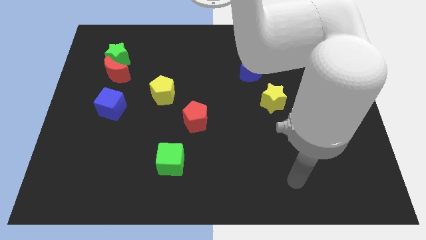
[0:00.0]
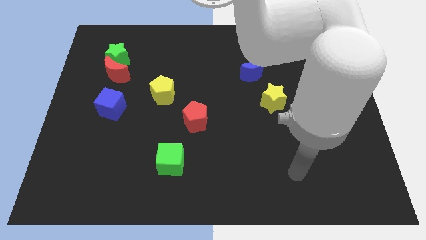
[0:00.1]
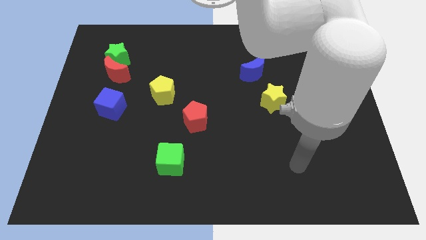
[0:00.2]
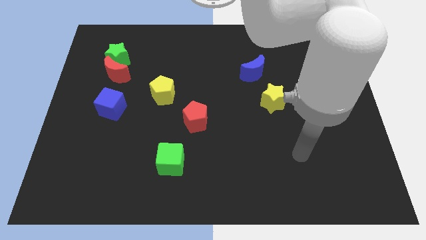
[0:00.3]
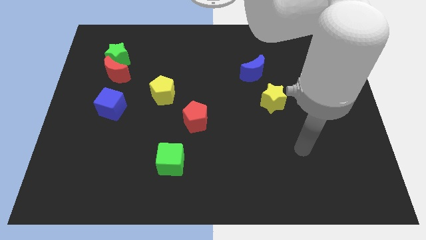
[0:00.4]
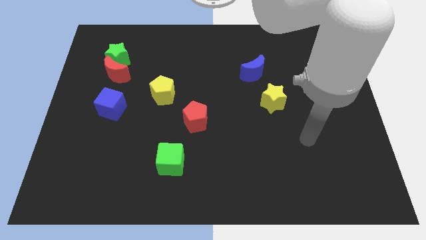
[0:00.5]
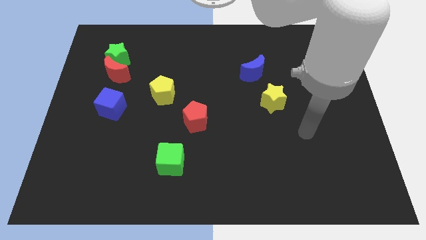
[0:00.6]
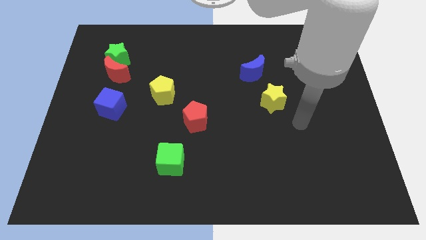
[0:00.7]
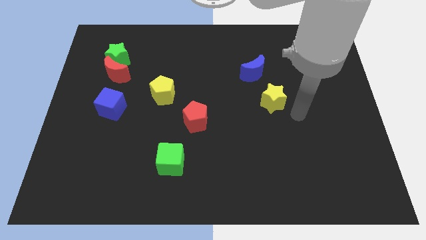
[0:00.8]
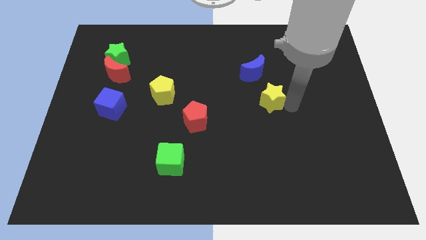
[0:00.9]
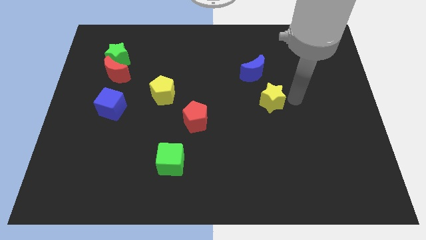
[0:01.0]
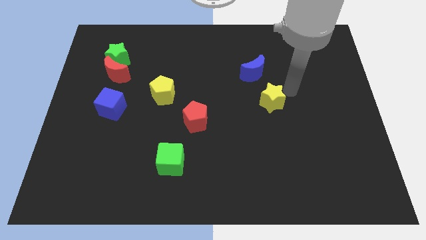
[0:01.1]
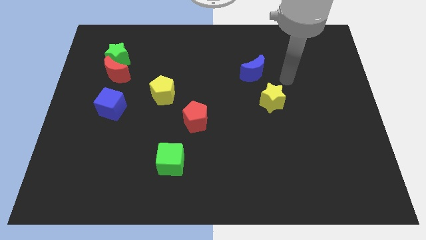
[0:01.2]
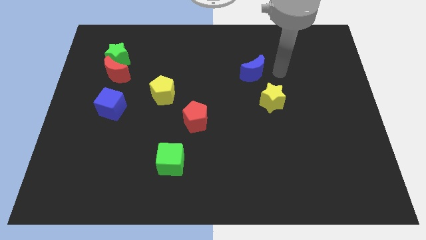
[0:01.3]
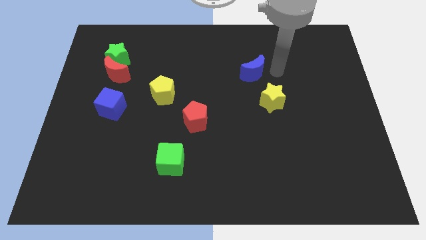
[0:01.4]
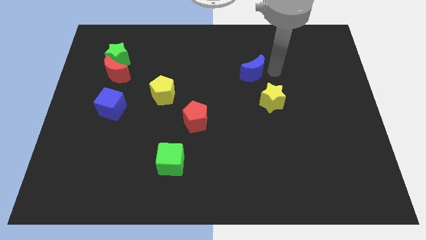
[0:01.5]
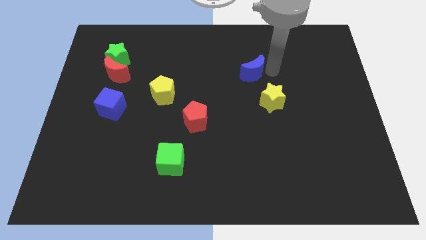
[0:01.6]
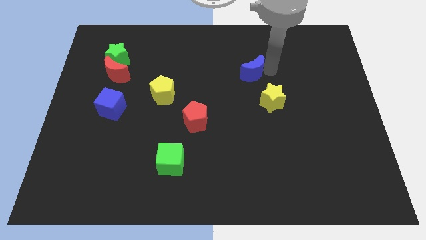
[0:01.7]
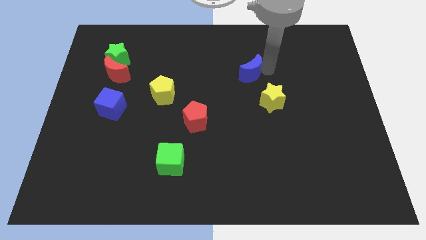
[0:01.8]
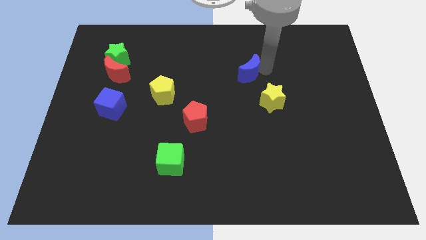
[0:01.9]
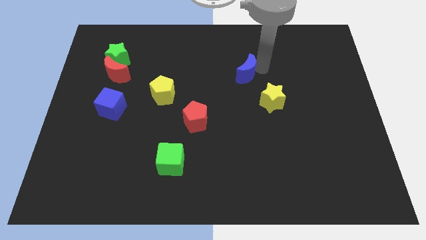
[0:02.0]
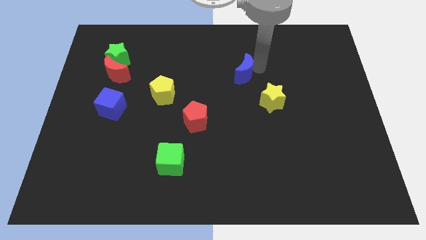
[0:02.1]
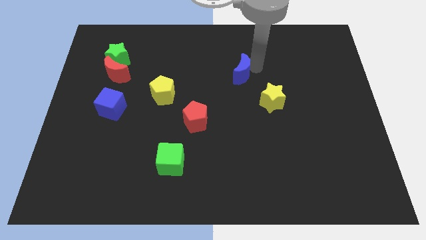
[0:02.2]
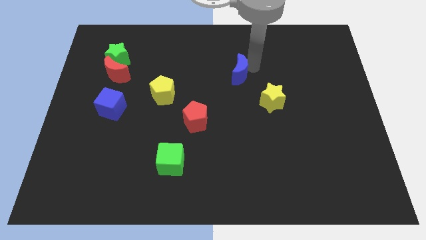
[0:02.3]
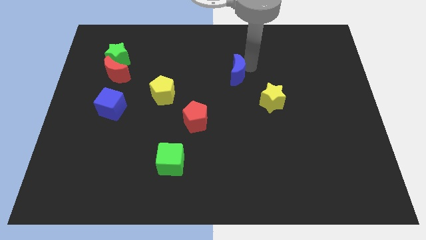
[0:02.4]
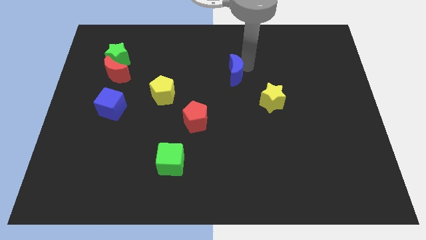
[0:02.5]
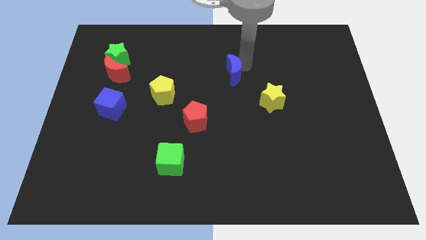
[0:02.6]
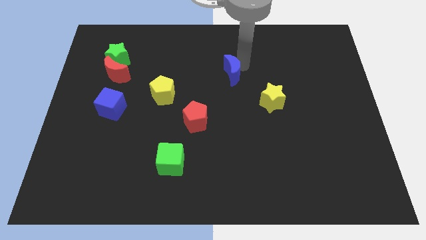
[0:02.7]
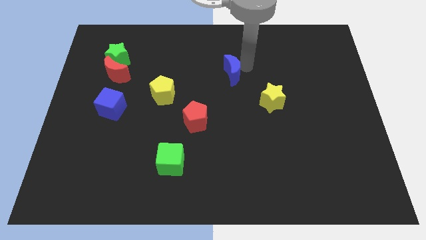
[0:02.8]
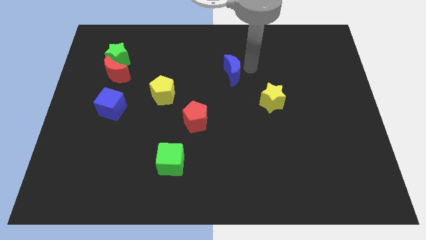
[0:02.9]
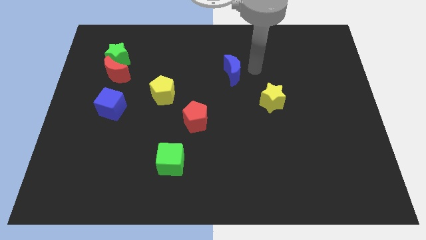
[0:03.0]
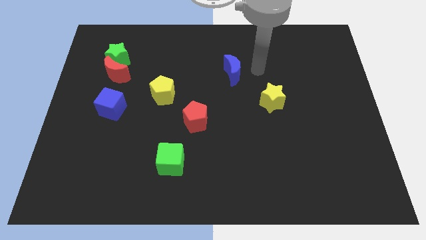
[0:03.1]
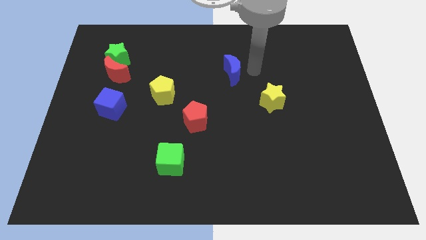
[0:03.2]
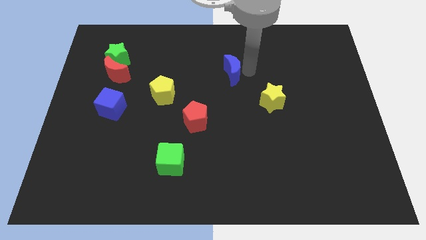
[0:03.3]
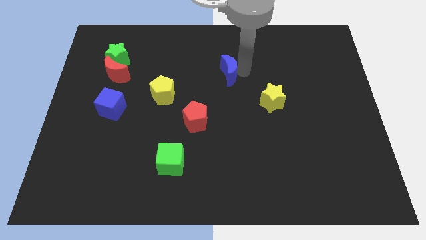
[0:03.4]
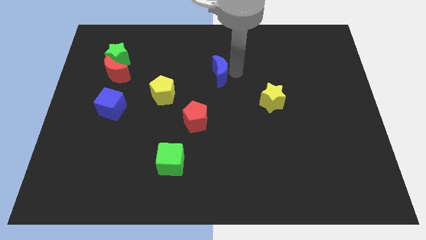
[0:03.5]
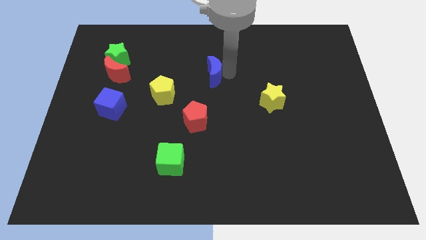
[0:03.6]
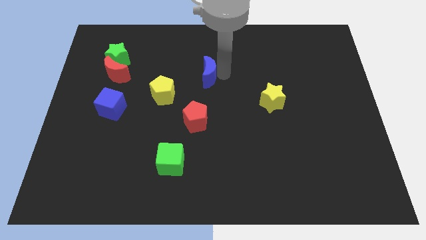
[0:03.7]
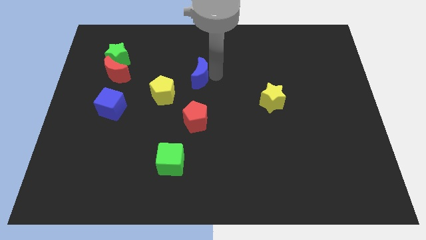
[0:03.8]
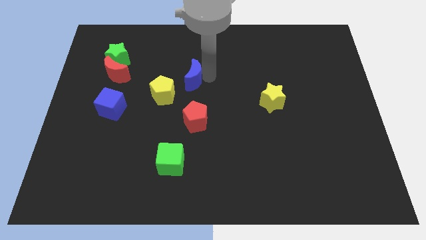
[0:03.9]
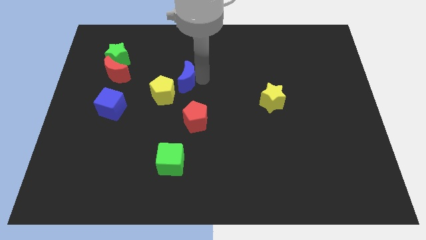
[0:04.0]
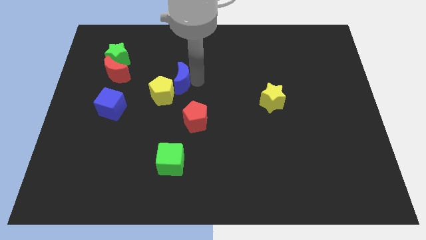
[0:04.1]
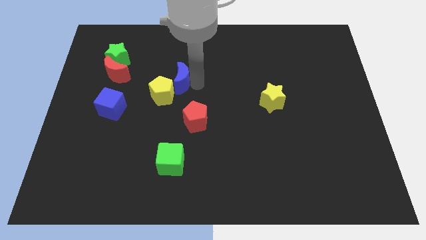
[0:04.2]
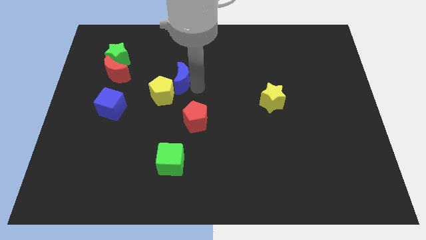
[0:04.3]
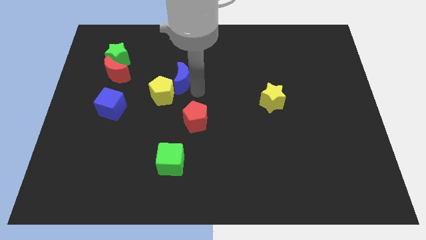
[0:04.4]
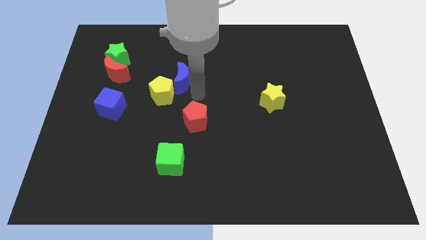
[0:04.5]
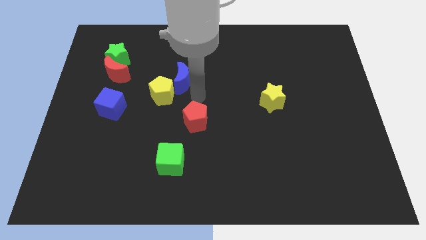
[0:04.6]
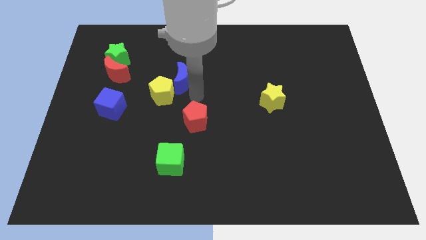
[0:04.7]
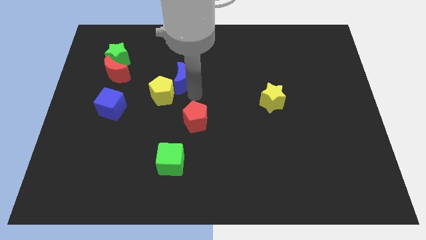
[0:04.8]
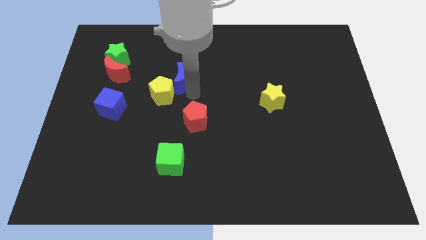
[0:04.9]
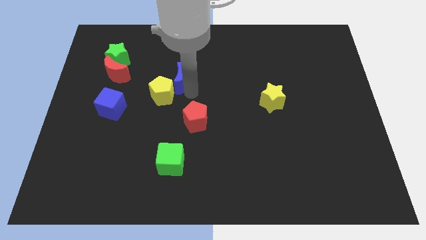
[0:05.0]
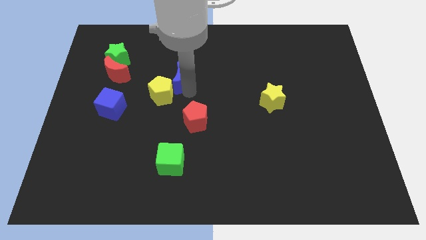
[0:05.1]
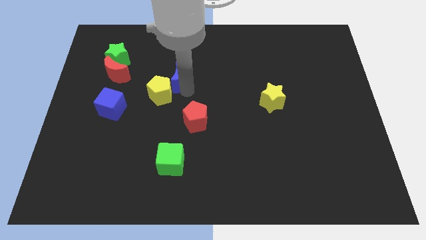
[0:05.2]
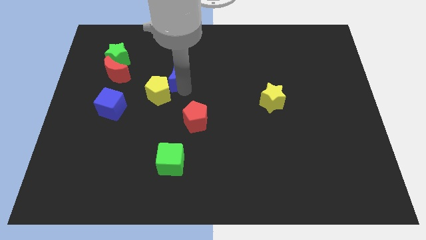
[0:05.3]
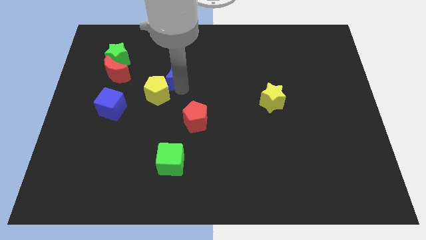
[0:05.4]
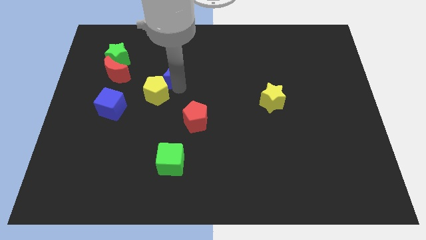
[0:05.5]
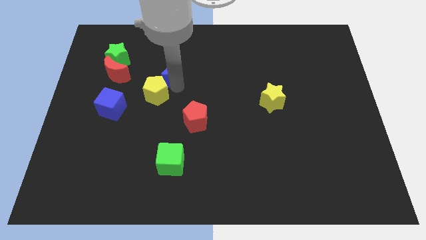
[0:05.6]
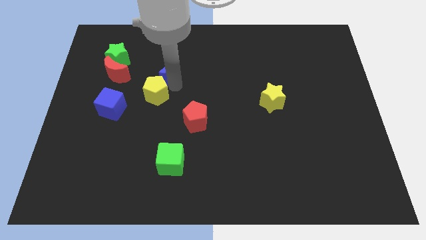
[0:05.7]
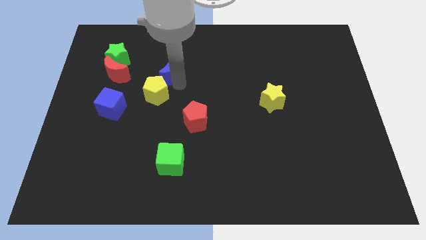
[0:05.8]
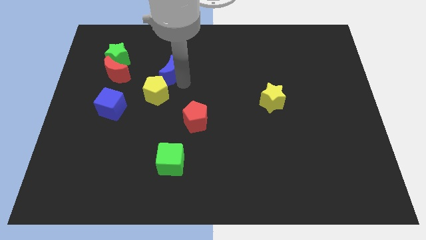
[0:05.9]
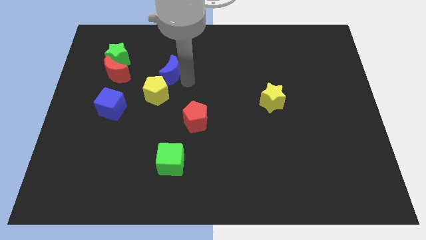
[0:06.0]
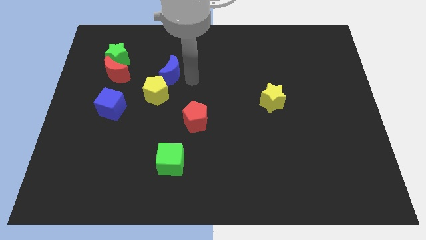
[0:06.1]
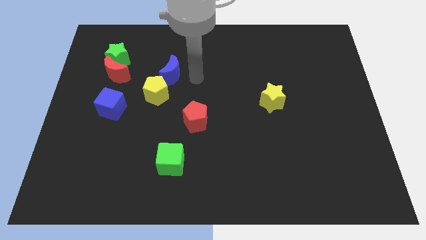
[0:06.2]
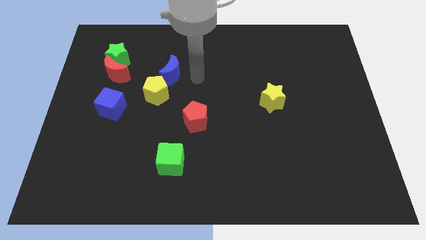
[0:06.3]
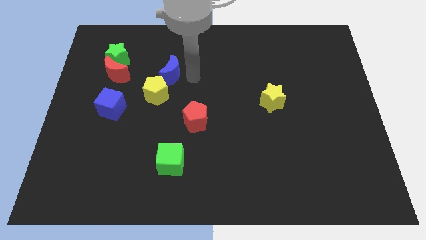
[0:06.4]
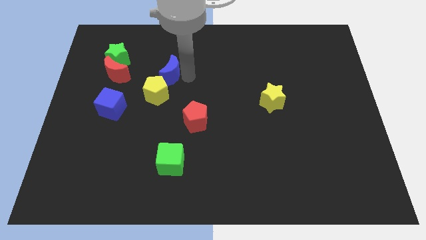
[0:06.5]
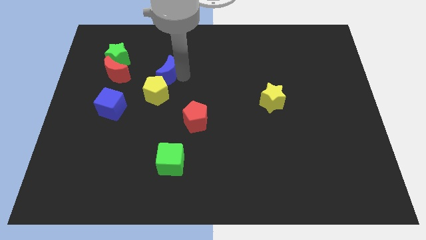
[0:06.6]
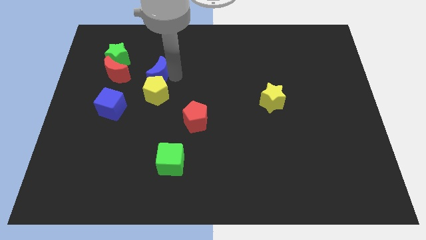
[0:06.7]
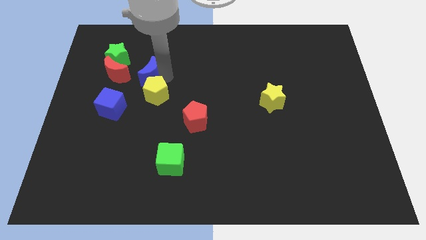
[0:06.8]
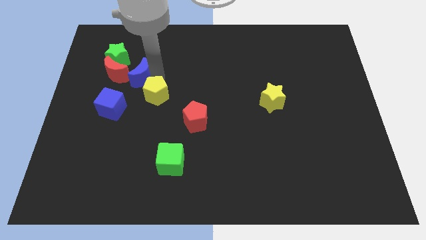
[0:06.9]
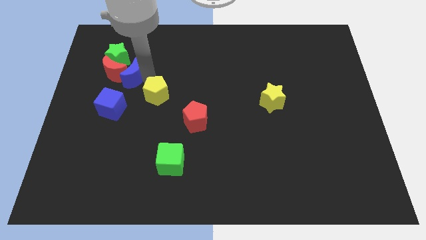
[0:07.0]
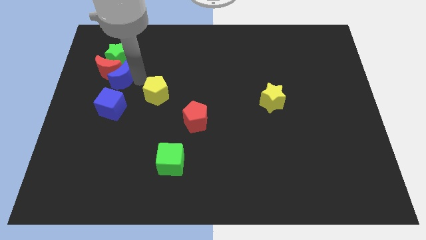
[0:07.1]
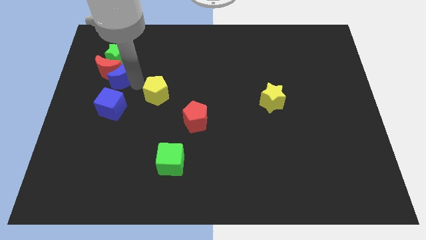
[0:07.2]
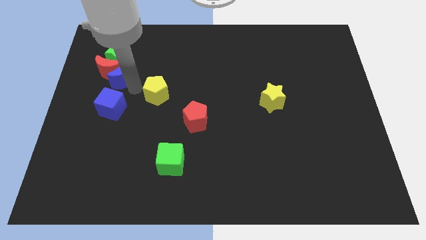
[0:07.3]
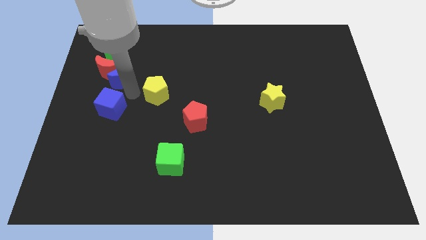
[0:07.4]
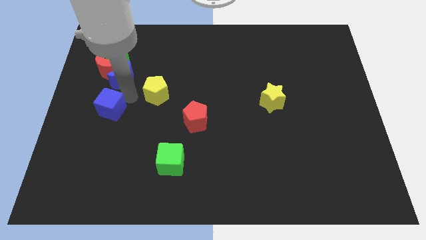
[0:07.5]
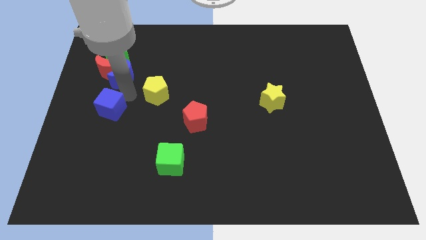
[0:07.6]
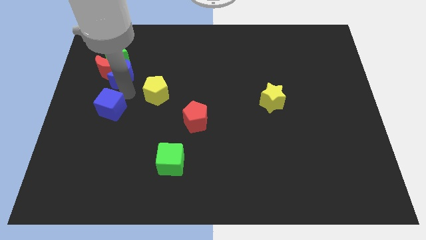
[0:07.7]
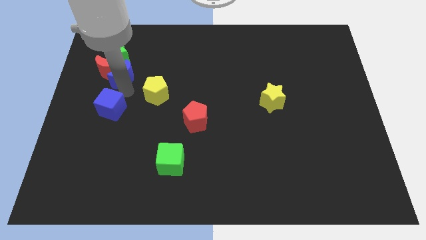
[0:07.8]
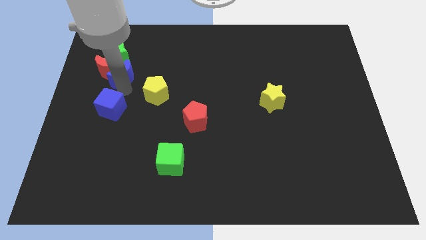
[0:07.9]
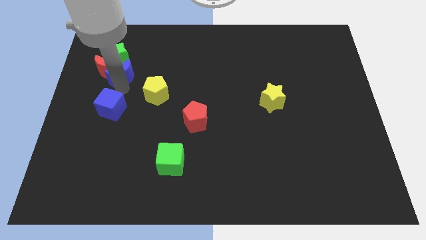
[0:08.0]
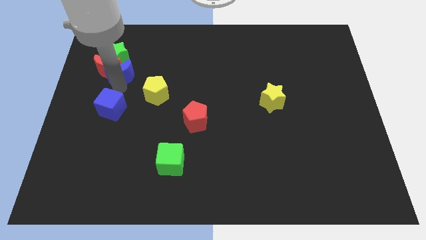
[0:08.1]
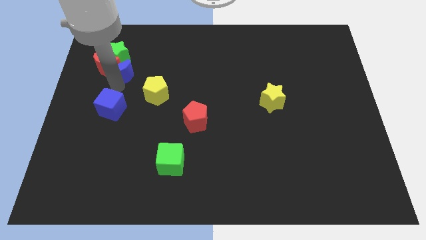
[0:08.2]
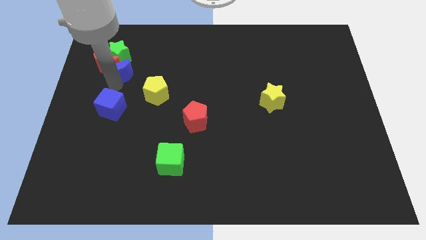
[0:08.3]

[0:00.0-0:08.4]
slide the blue moon towards the green star
